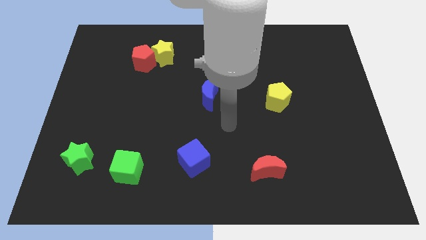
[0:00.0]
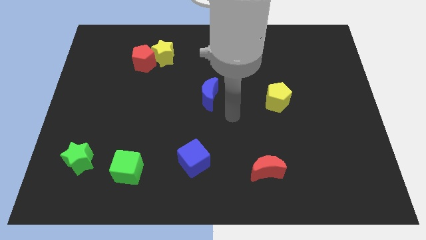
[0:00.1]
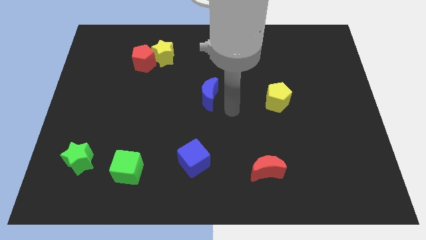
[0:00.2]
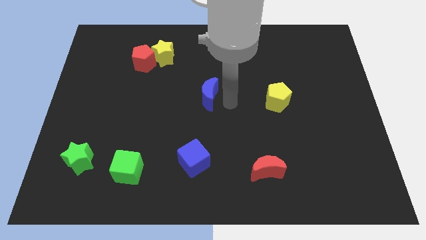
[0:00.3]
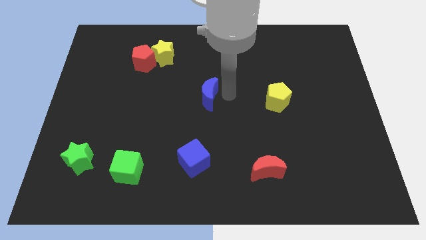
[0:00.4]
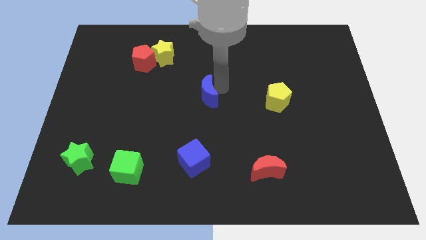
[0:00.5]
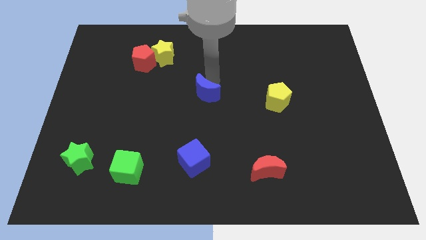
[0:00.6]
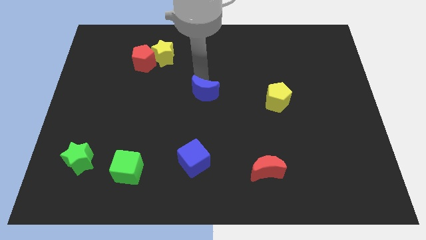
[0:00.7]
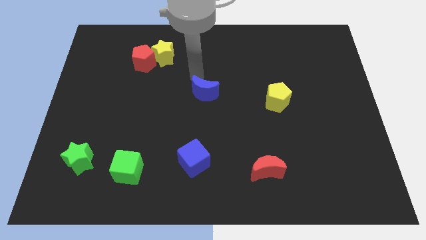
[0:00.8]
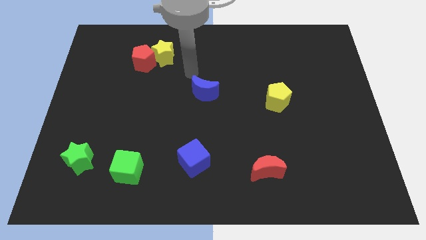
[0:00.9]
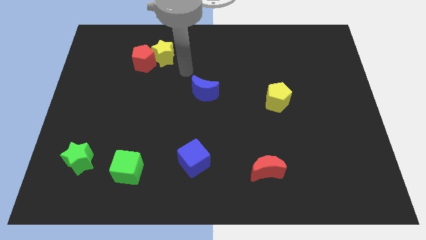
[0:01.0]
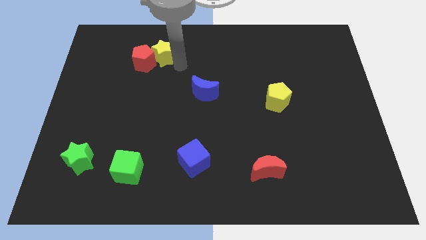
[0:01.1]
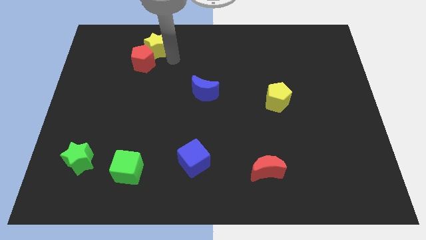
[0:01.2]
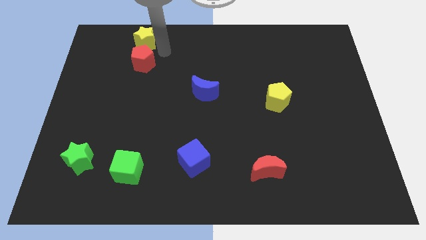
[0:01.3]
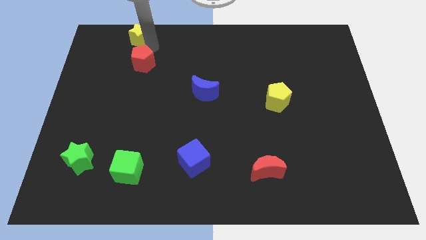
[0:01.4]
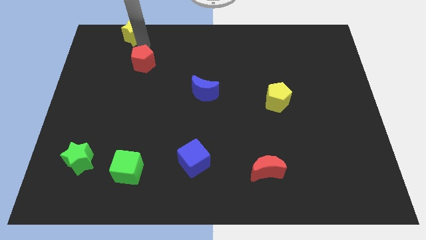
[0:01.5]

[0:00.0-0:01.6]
move the red pentagon away from the yellow star

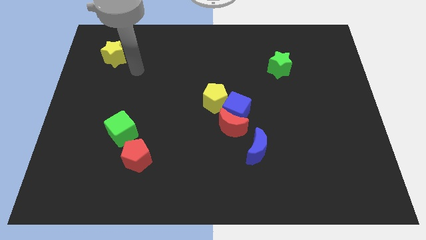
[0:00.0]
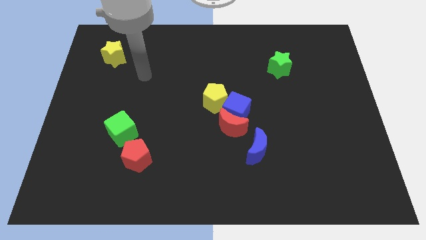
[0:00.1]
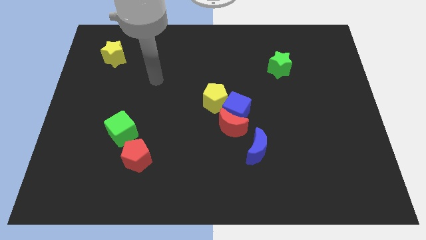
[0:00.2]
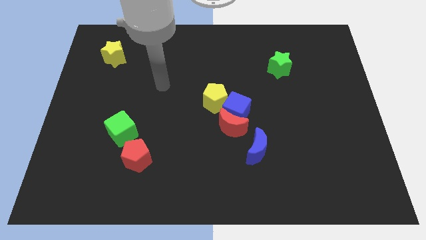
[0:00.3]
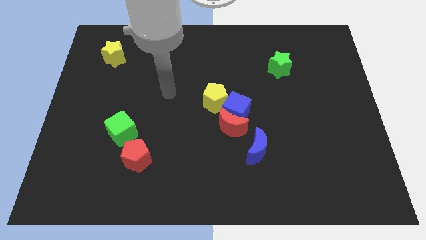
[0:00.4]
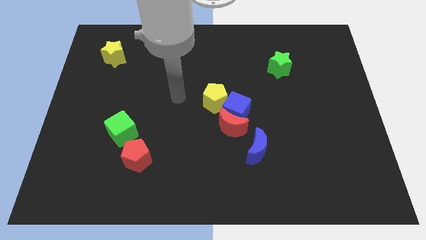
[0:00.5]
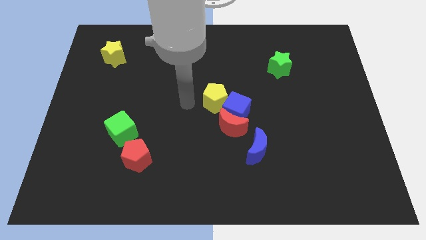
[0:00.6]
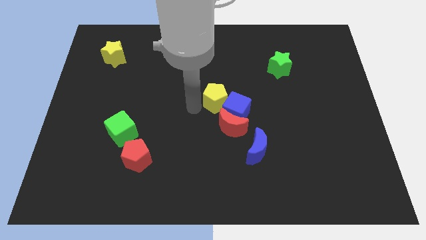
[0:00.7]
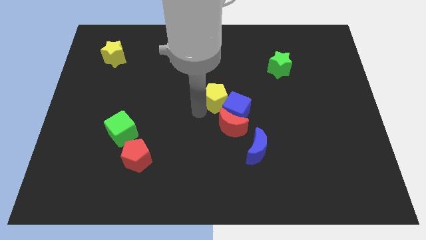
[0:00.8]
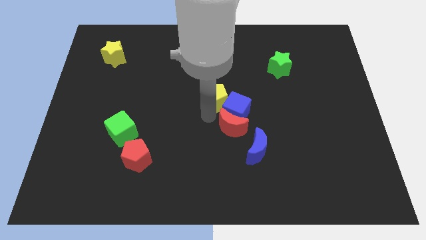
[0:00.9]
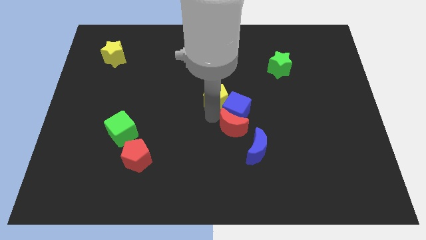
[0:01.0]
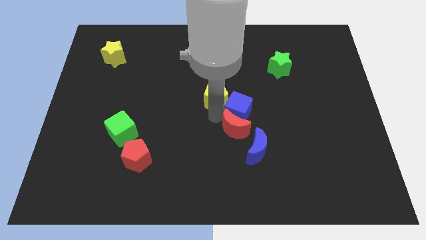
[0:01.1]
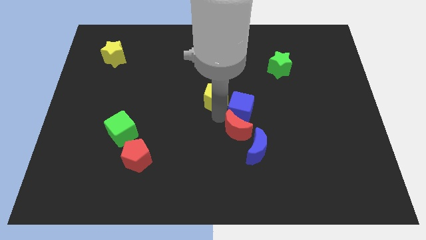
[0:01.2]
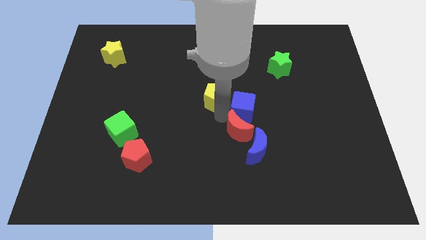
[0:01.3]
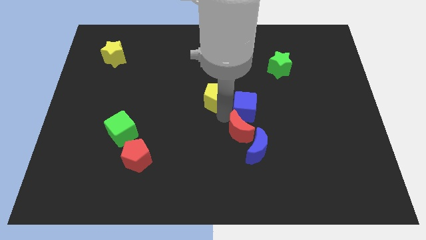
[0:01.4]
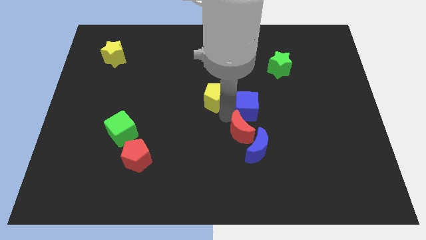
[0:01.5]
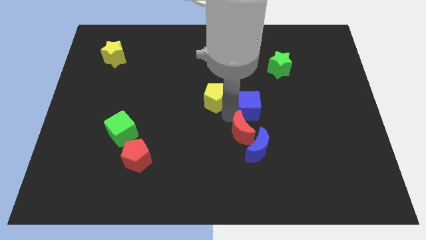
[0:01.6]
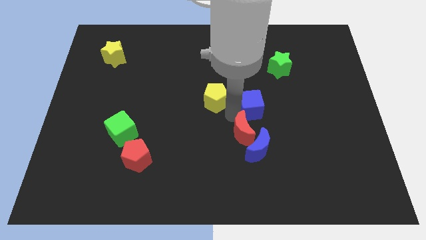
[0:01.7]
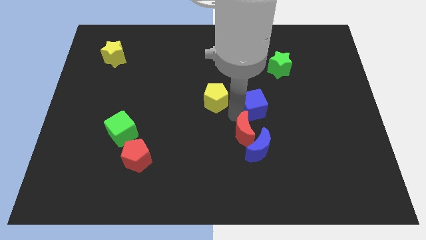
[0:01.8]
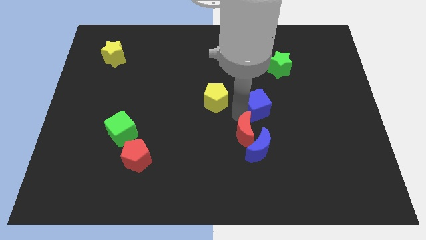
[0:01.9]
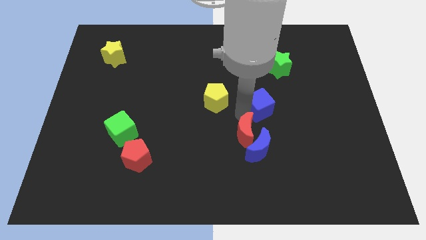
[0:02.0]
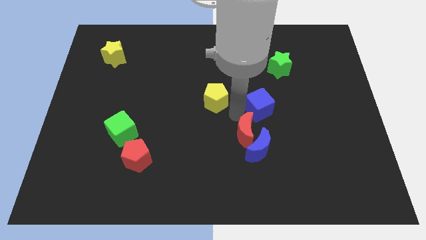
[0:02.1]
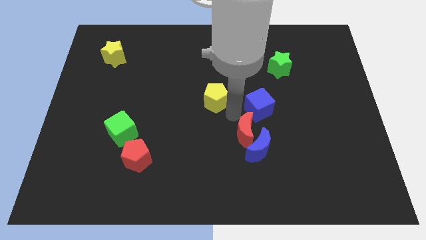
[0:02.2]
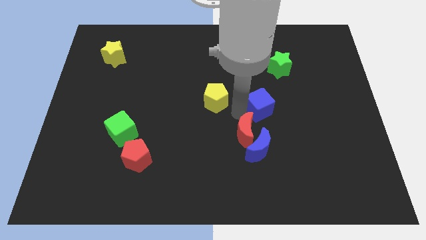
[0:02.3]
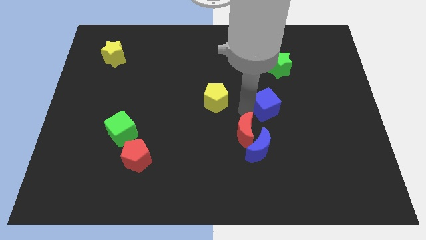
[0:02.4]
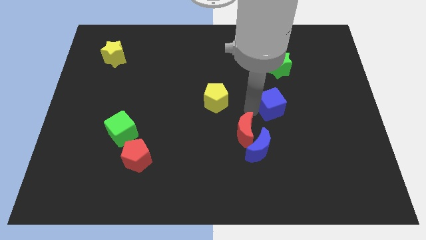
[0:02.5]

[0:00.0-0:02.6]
move the blue cube away from the red moon and yellow pentagon

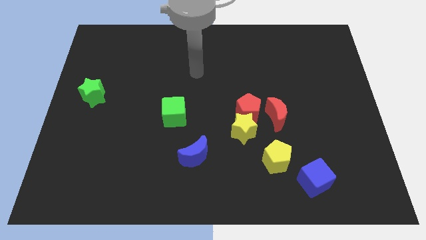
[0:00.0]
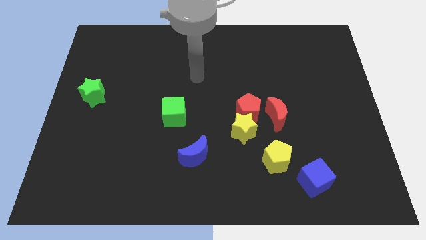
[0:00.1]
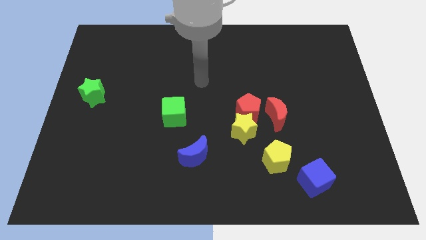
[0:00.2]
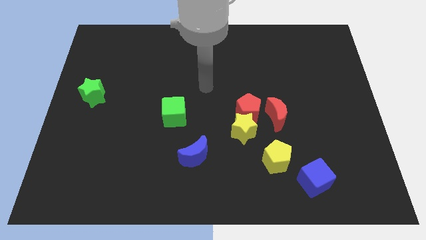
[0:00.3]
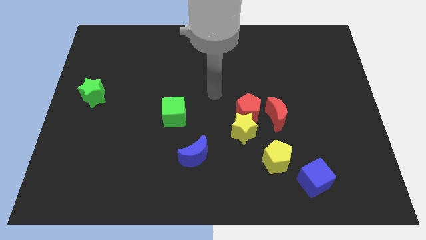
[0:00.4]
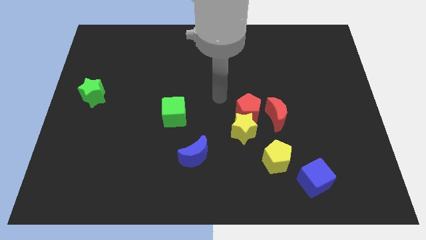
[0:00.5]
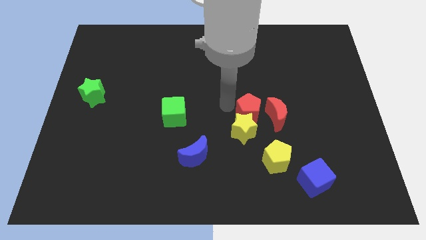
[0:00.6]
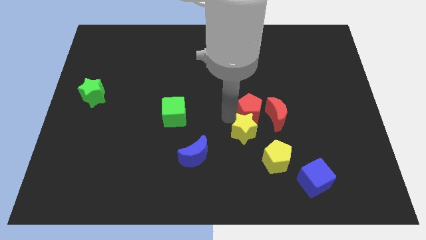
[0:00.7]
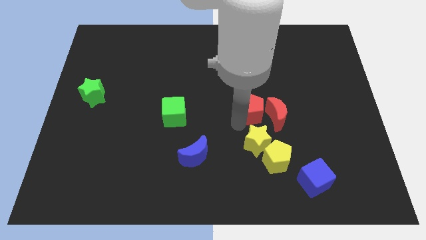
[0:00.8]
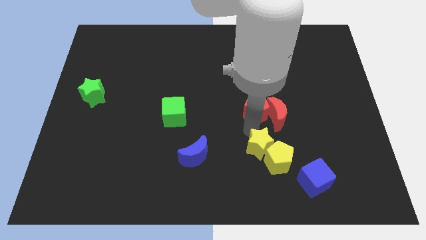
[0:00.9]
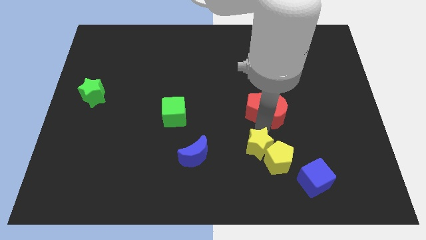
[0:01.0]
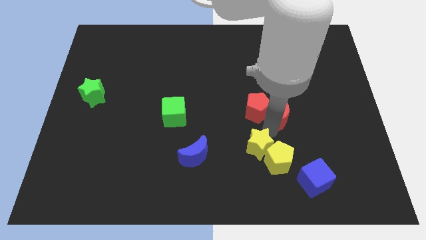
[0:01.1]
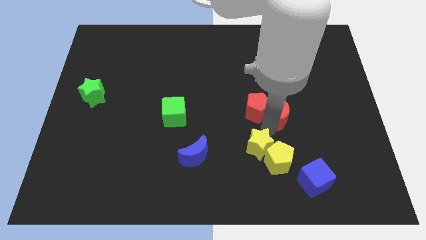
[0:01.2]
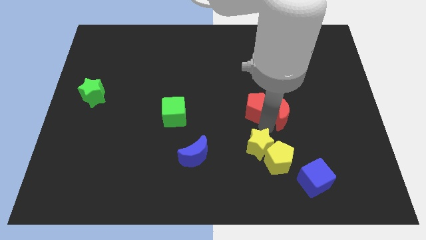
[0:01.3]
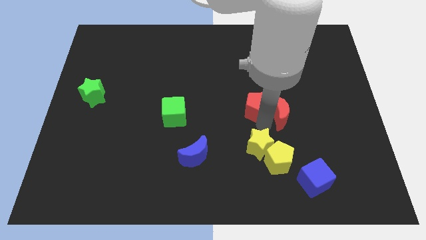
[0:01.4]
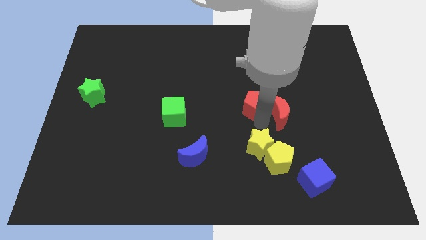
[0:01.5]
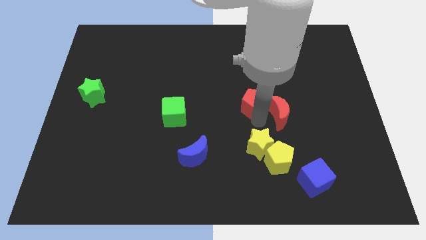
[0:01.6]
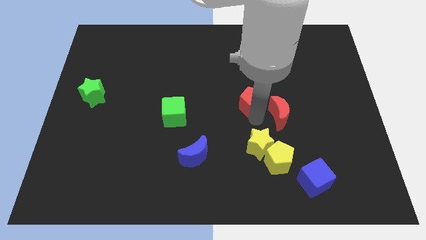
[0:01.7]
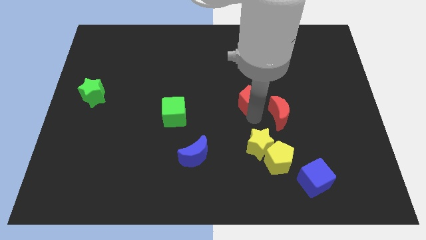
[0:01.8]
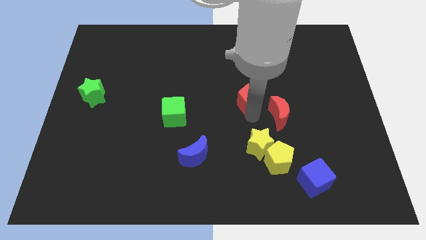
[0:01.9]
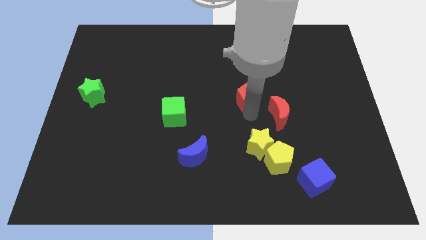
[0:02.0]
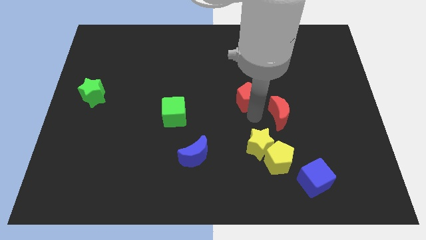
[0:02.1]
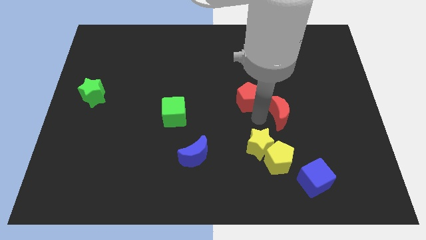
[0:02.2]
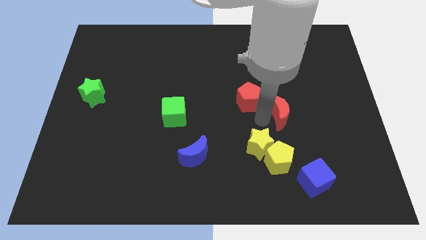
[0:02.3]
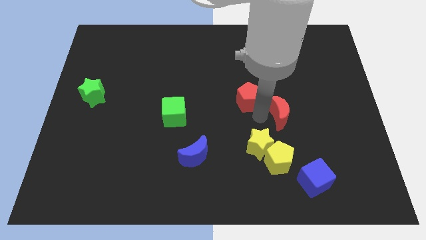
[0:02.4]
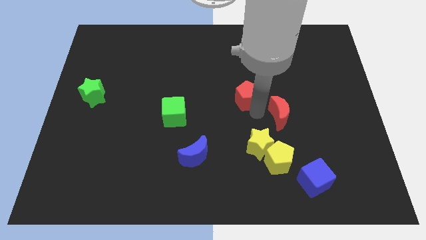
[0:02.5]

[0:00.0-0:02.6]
move the red pentagon away from the yellow star and red moon

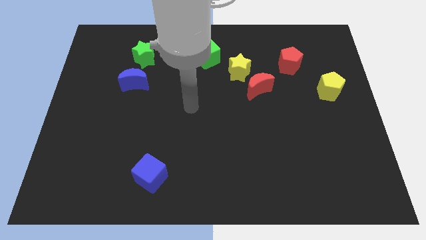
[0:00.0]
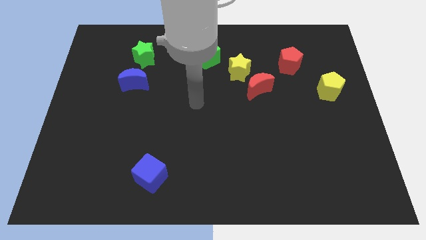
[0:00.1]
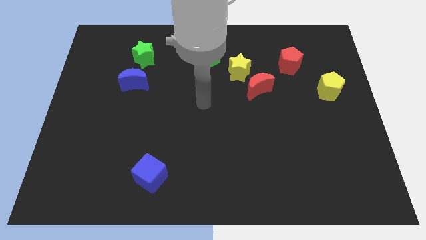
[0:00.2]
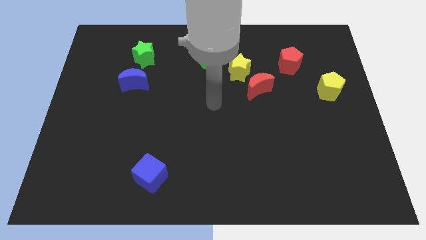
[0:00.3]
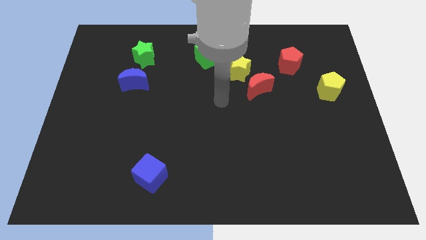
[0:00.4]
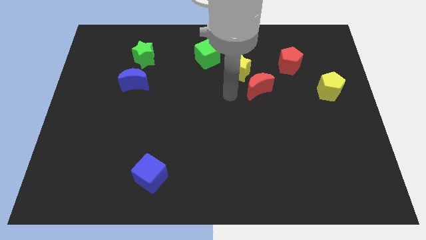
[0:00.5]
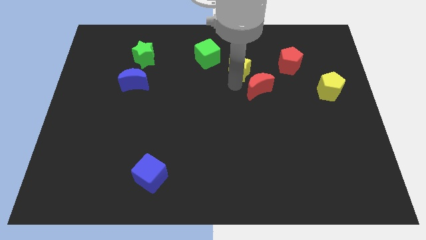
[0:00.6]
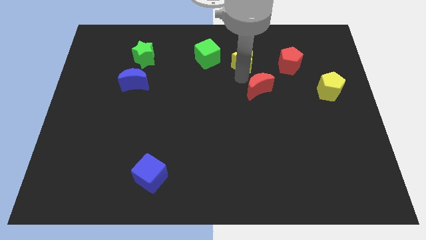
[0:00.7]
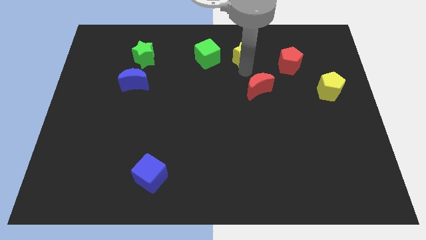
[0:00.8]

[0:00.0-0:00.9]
pull the red moon apart from the yellow star

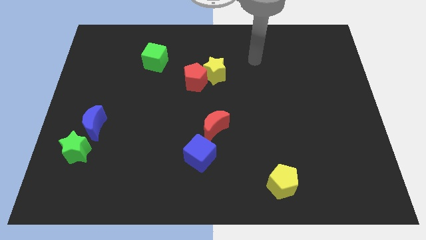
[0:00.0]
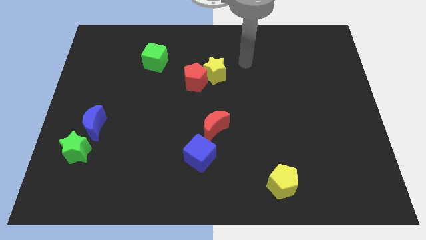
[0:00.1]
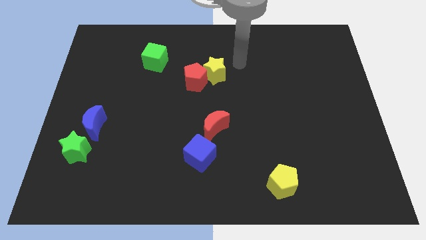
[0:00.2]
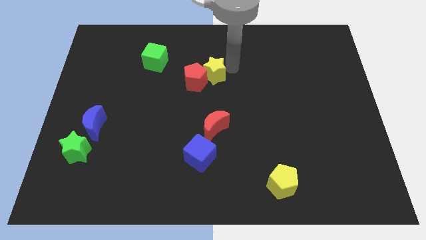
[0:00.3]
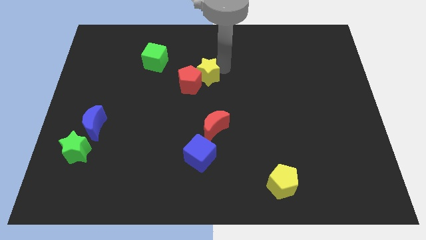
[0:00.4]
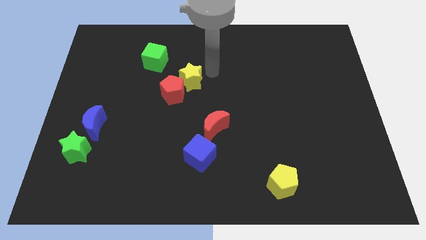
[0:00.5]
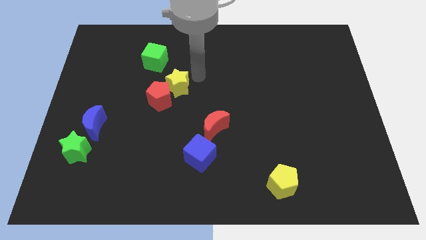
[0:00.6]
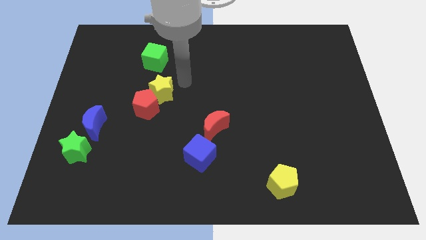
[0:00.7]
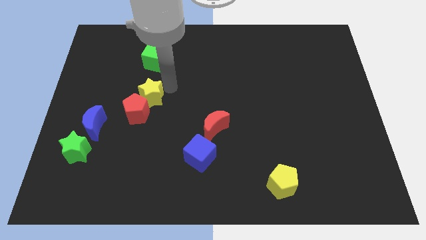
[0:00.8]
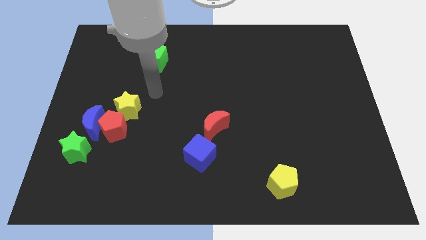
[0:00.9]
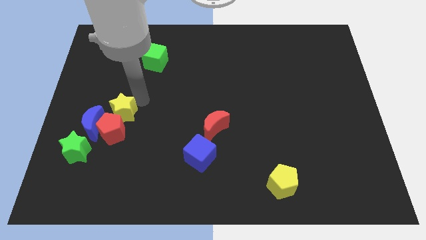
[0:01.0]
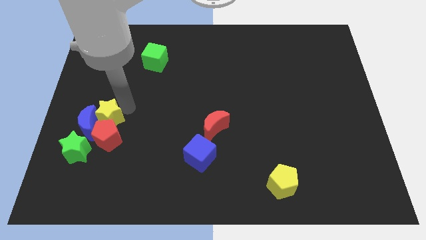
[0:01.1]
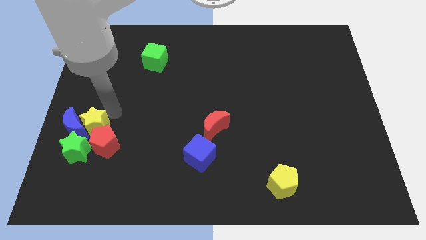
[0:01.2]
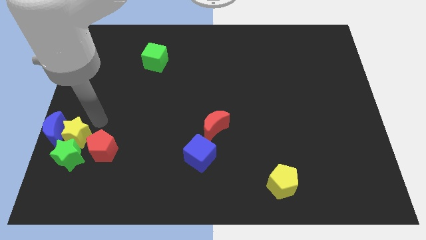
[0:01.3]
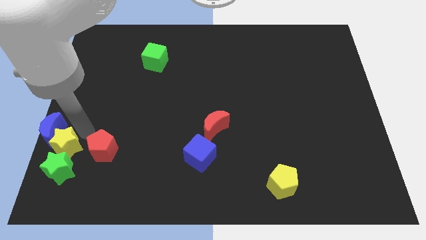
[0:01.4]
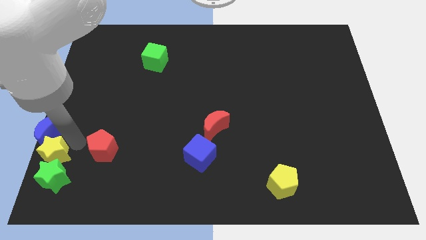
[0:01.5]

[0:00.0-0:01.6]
separate the red pentagon from the yellow star

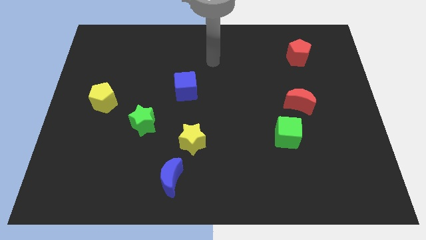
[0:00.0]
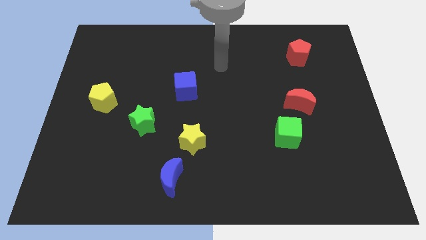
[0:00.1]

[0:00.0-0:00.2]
pull the red moon apart from the green cube
